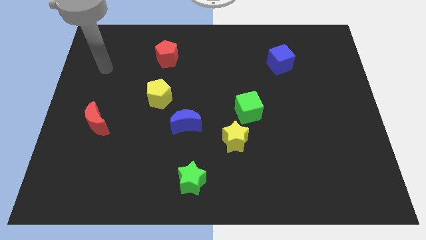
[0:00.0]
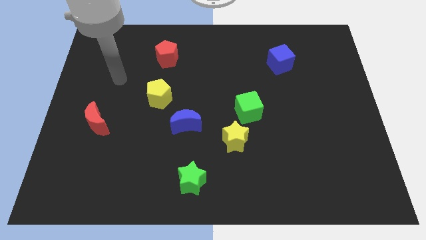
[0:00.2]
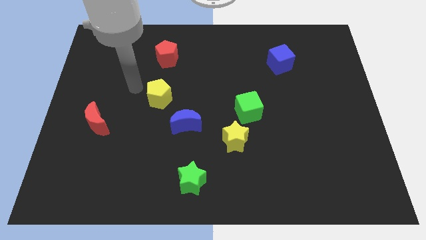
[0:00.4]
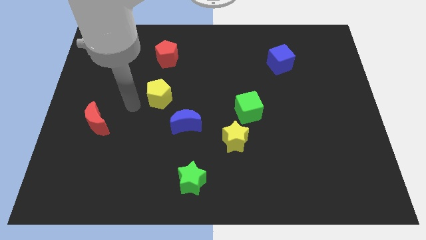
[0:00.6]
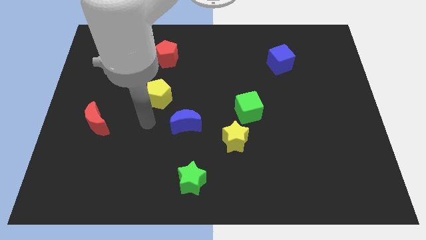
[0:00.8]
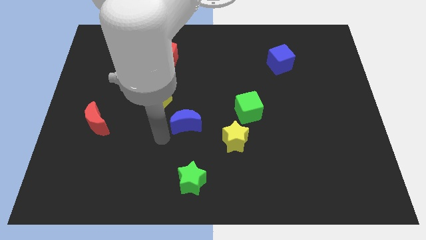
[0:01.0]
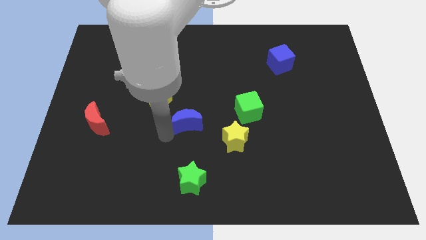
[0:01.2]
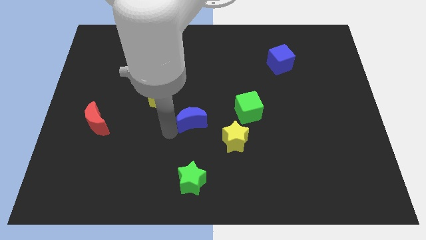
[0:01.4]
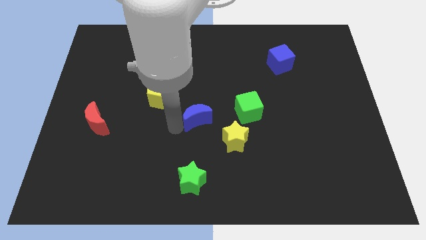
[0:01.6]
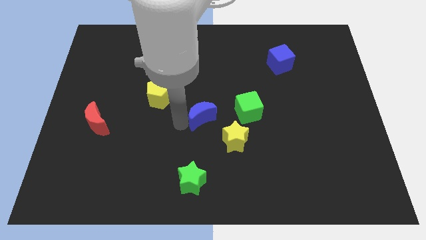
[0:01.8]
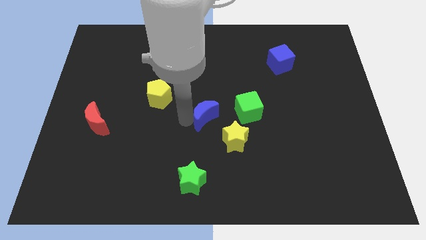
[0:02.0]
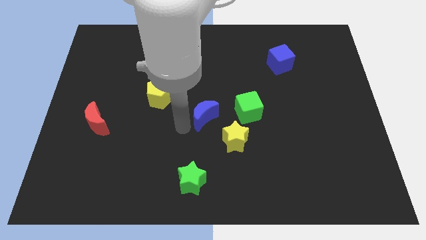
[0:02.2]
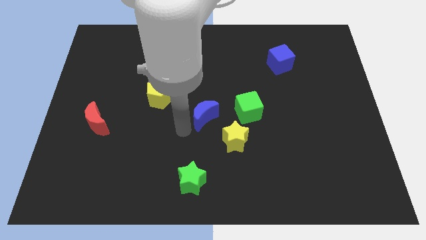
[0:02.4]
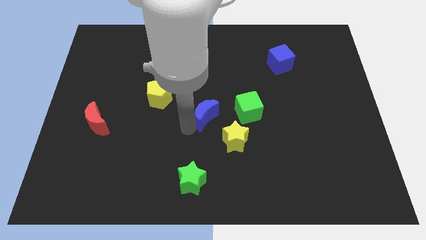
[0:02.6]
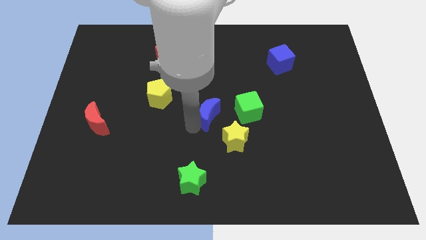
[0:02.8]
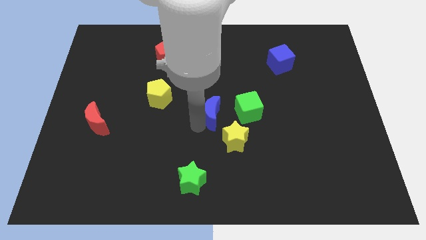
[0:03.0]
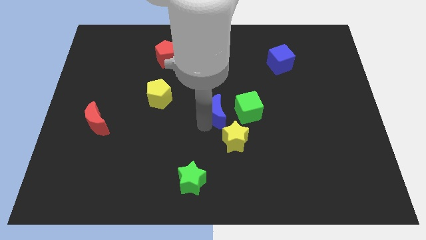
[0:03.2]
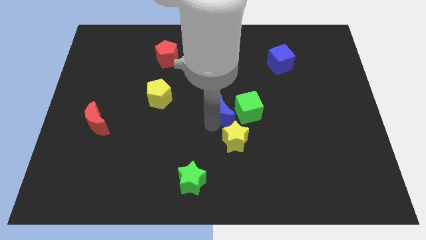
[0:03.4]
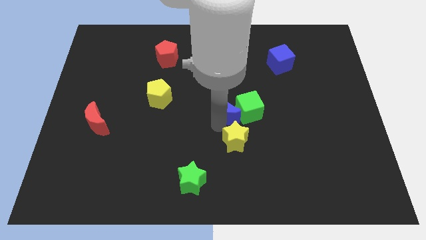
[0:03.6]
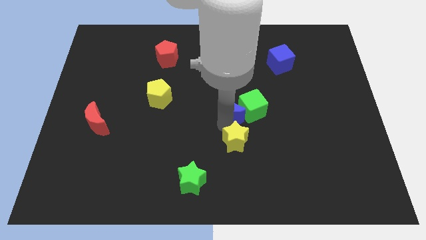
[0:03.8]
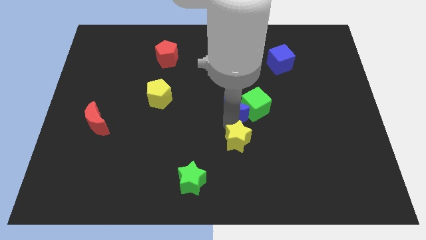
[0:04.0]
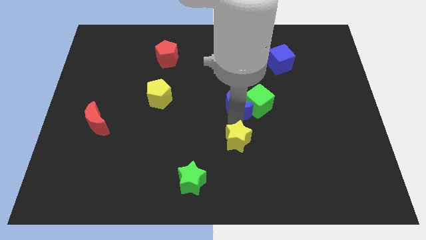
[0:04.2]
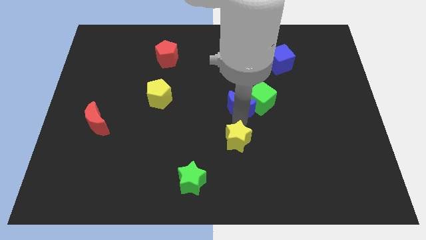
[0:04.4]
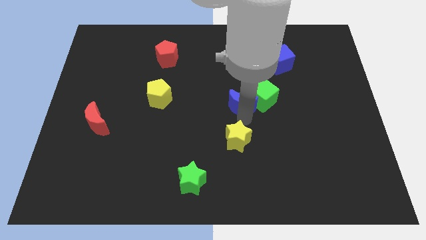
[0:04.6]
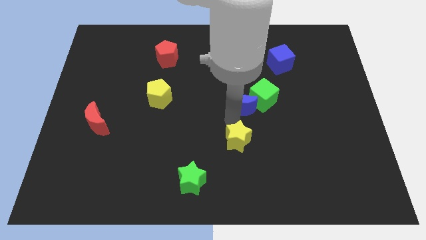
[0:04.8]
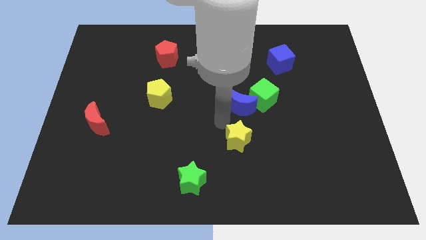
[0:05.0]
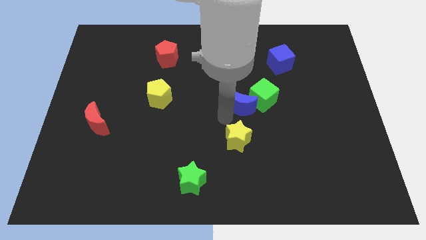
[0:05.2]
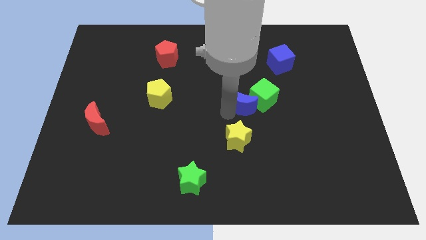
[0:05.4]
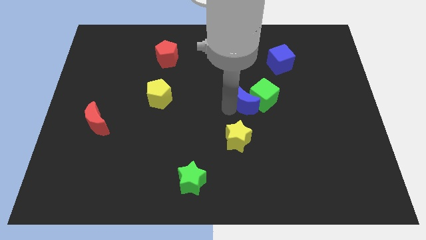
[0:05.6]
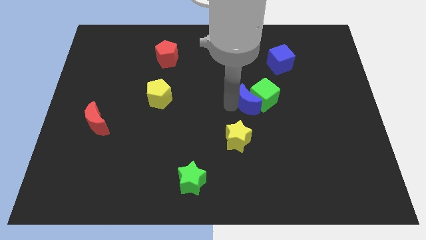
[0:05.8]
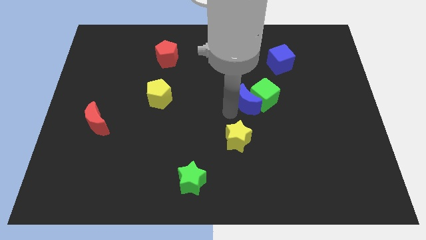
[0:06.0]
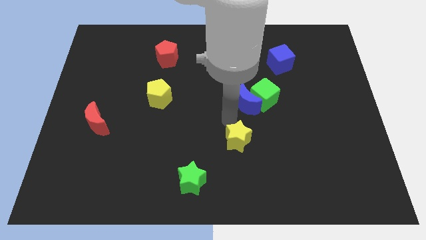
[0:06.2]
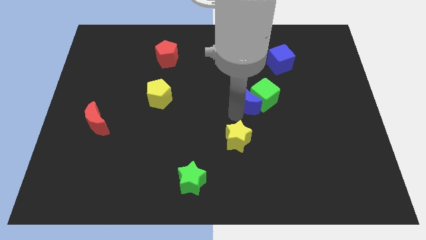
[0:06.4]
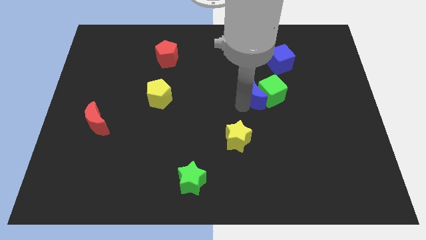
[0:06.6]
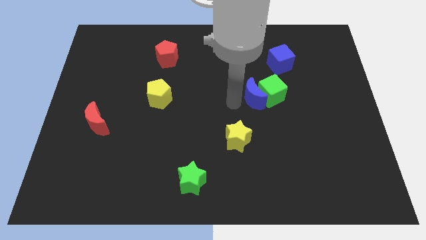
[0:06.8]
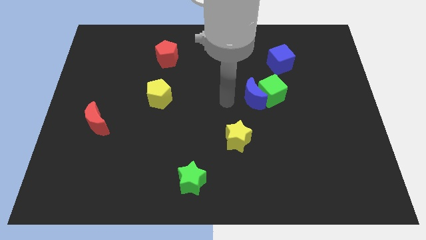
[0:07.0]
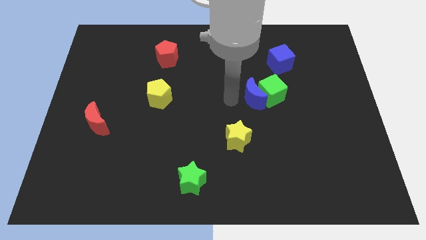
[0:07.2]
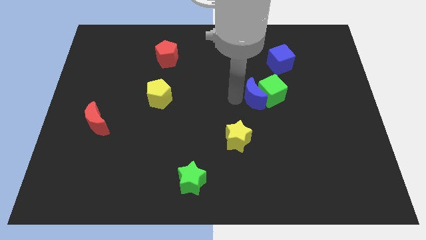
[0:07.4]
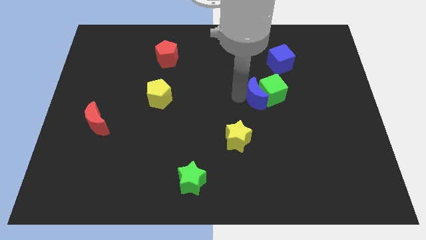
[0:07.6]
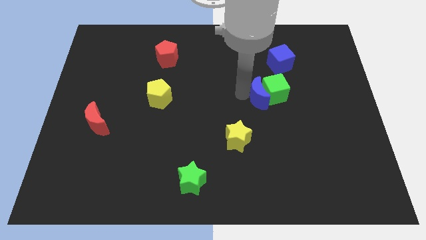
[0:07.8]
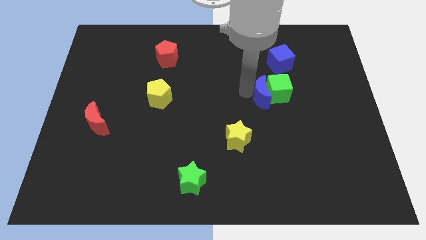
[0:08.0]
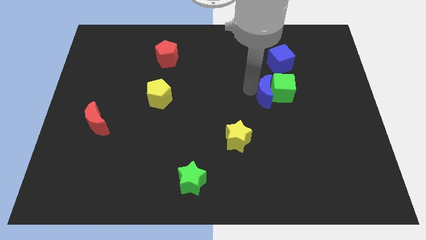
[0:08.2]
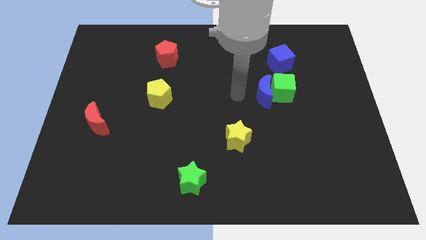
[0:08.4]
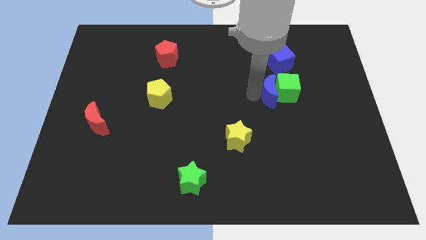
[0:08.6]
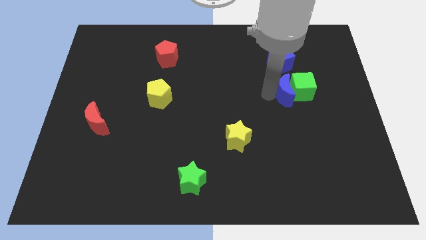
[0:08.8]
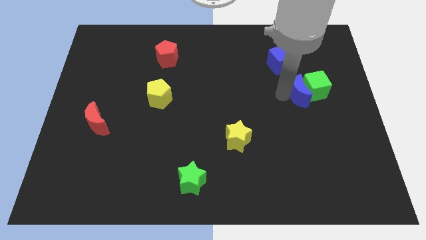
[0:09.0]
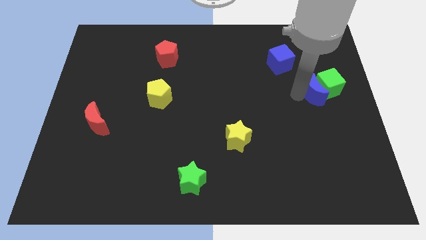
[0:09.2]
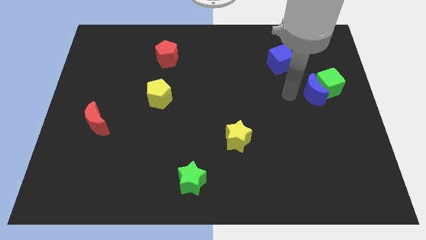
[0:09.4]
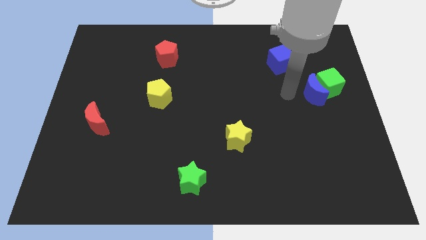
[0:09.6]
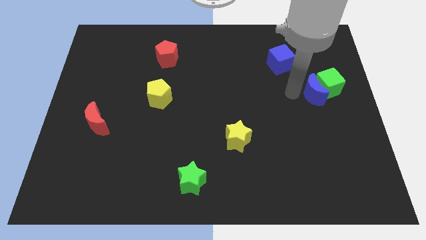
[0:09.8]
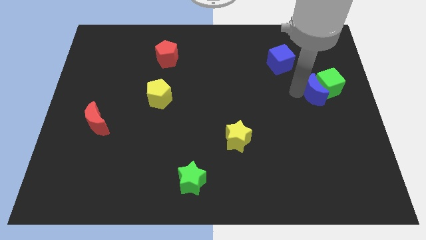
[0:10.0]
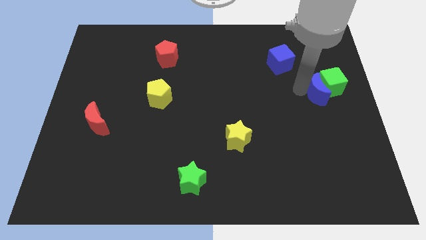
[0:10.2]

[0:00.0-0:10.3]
put the blue moon to the right side

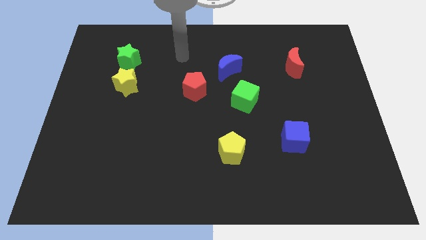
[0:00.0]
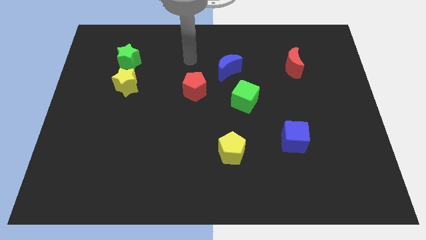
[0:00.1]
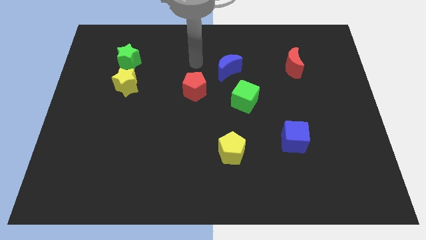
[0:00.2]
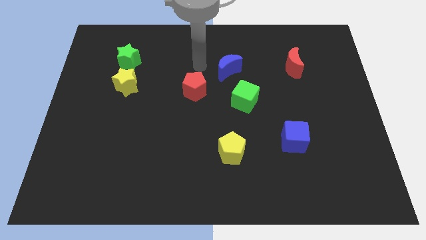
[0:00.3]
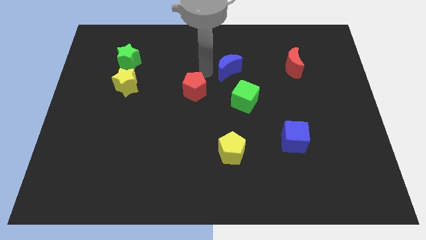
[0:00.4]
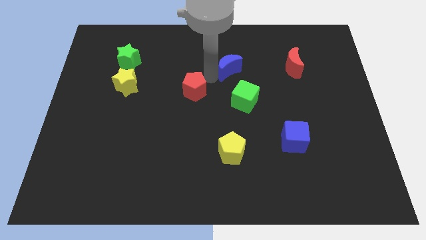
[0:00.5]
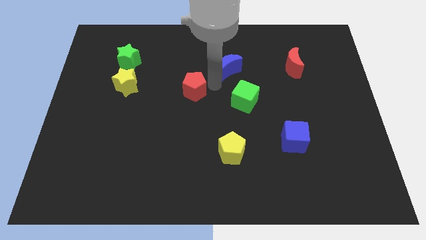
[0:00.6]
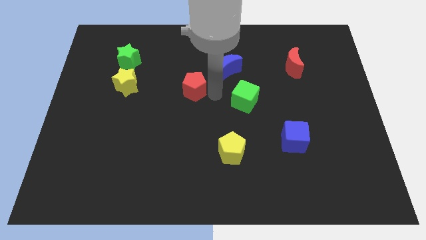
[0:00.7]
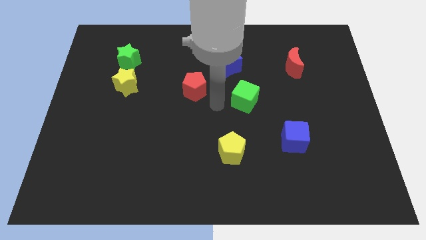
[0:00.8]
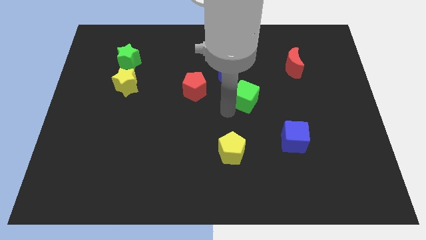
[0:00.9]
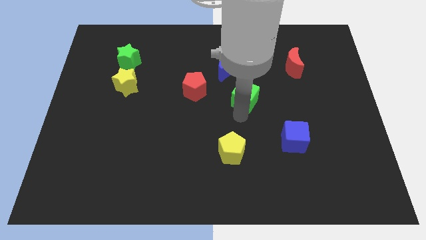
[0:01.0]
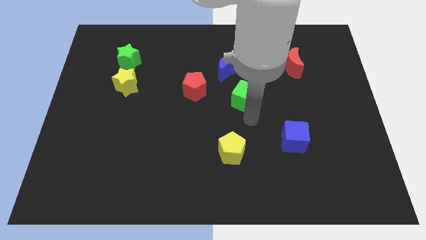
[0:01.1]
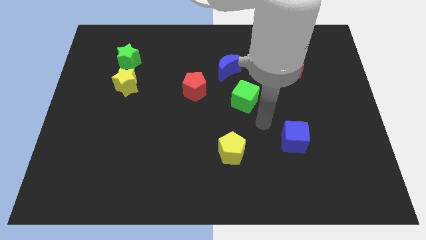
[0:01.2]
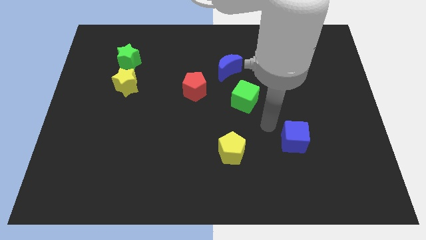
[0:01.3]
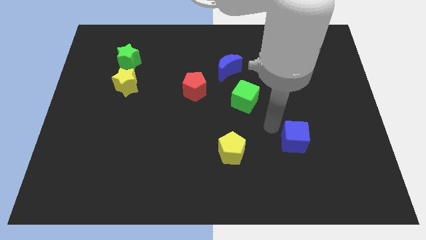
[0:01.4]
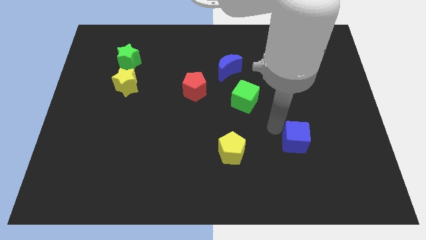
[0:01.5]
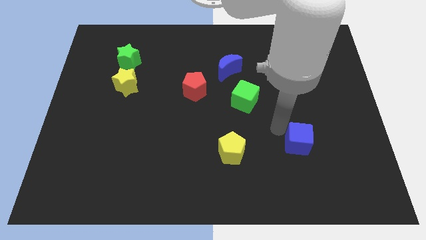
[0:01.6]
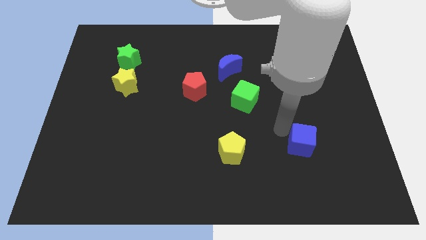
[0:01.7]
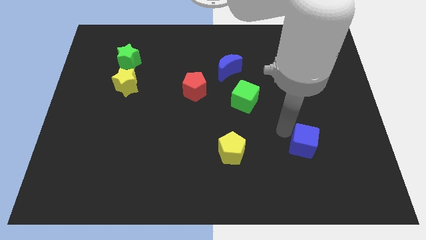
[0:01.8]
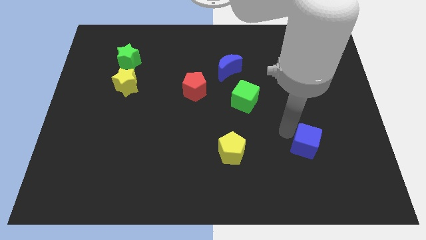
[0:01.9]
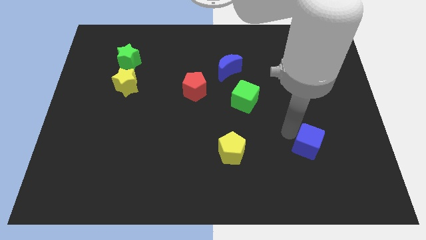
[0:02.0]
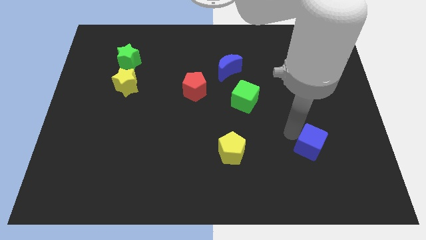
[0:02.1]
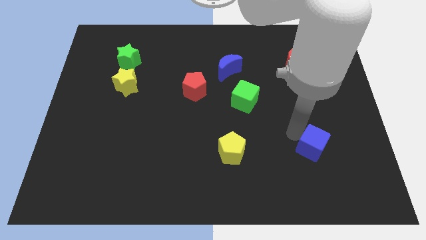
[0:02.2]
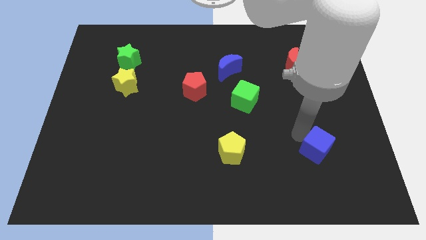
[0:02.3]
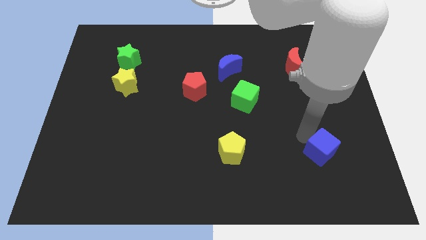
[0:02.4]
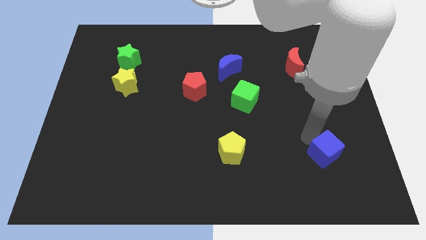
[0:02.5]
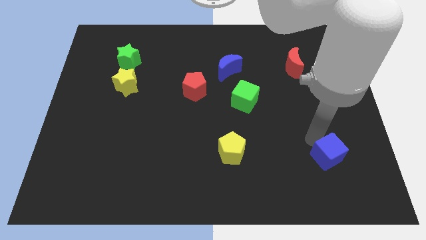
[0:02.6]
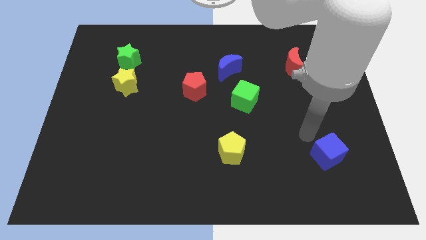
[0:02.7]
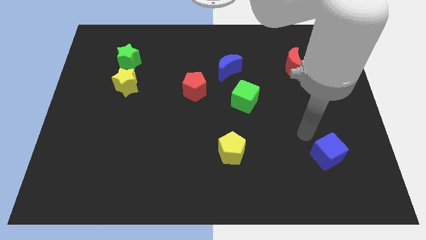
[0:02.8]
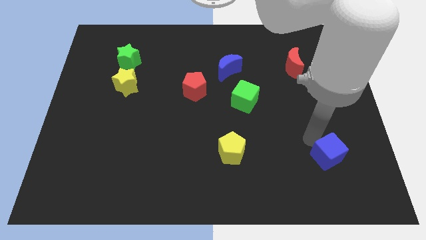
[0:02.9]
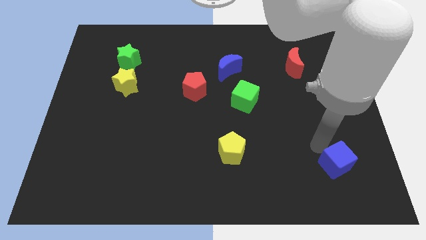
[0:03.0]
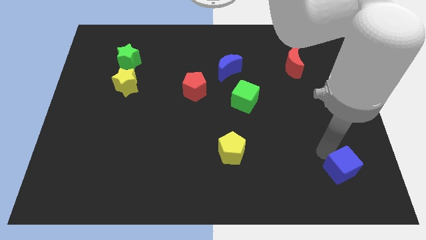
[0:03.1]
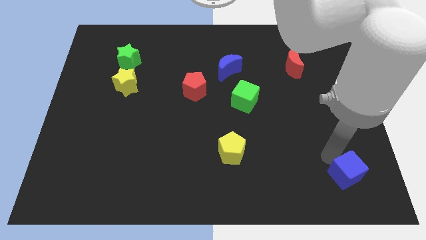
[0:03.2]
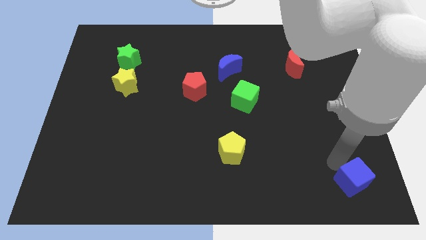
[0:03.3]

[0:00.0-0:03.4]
push the blue cube to the bottom right of the board
